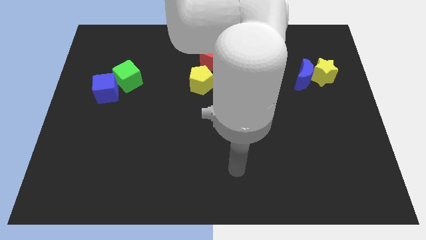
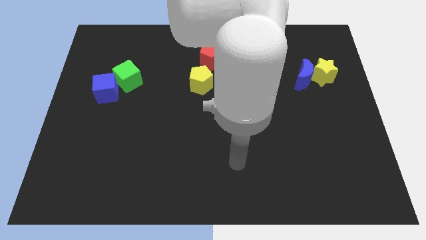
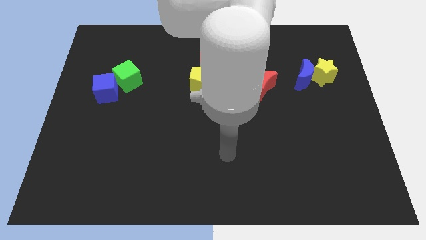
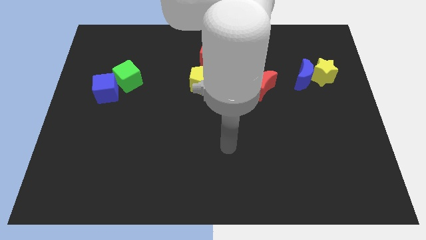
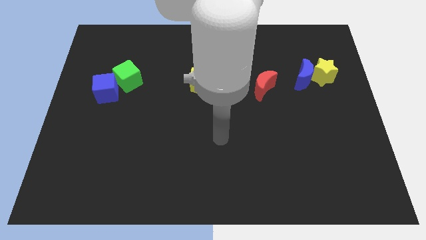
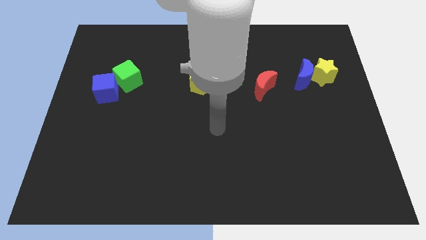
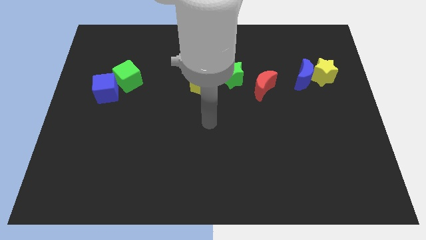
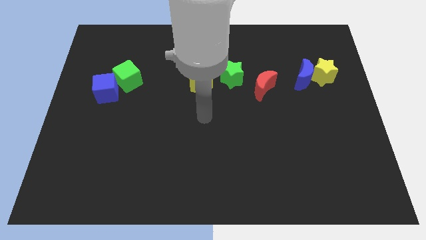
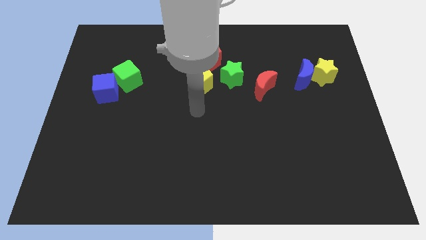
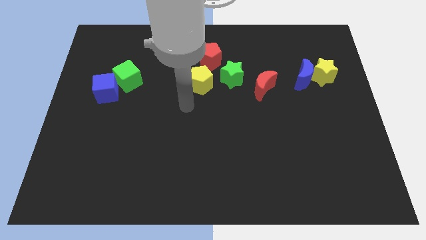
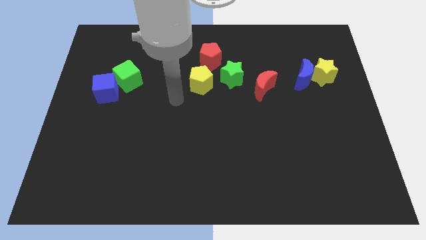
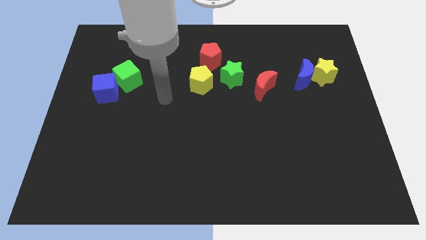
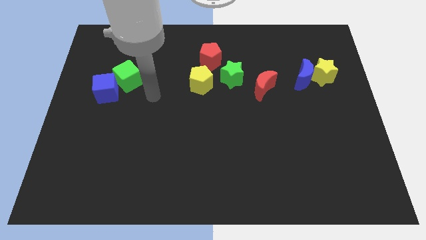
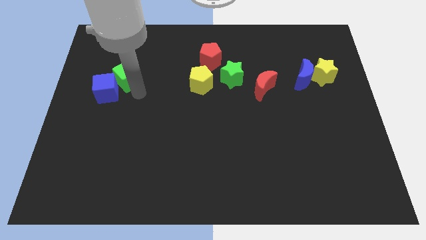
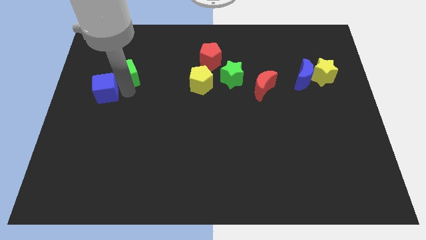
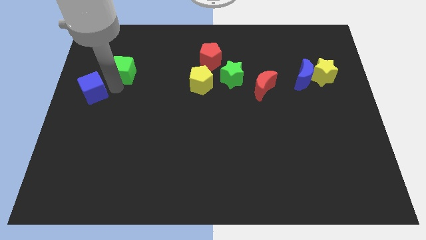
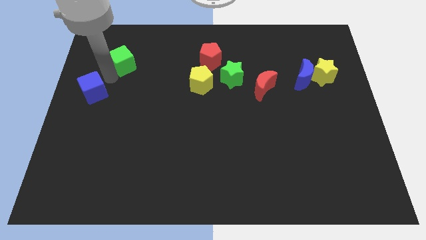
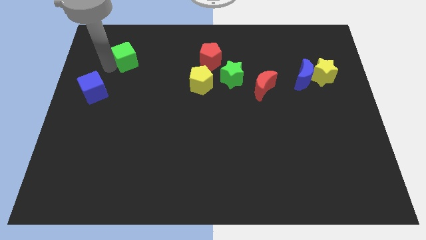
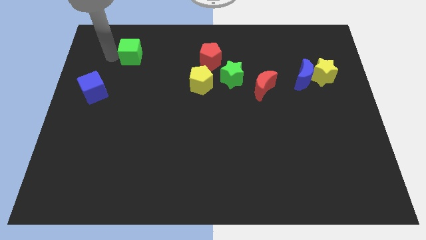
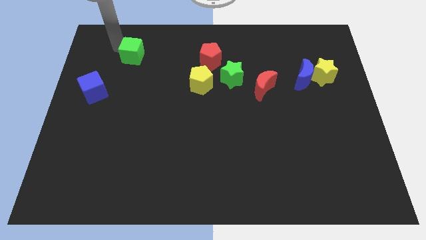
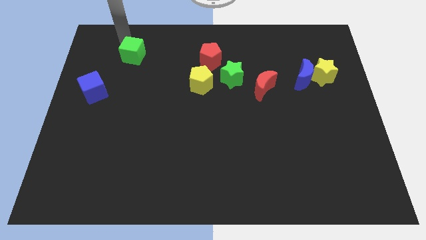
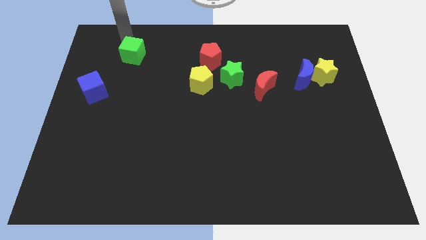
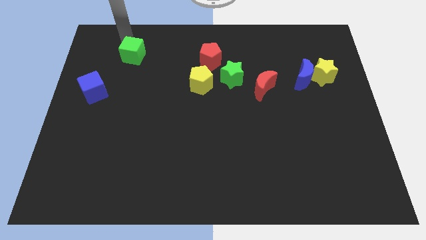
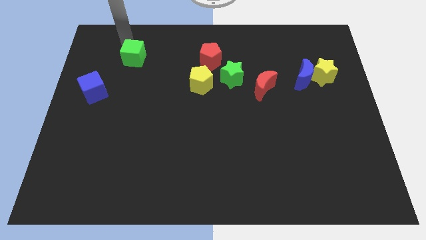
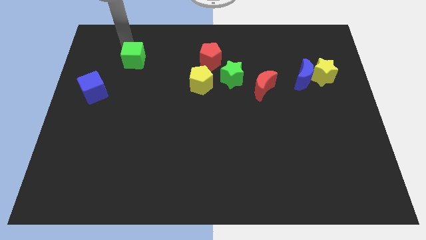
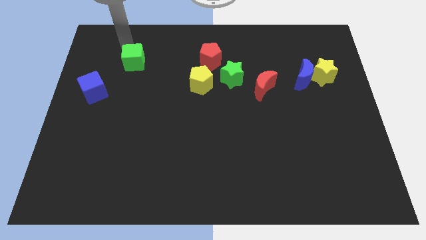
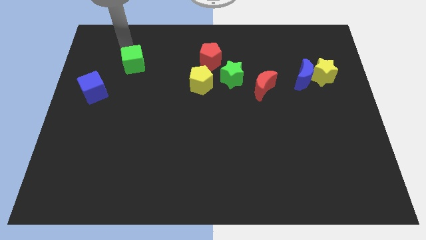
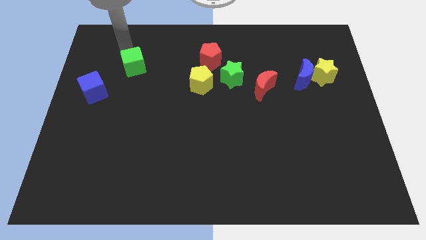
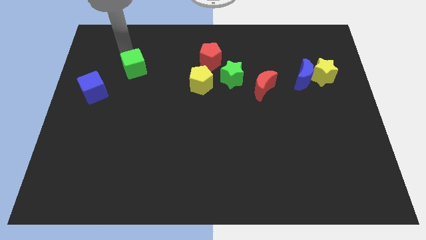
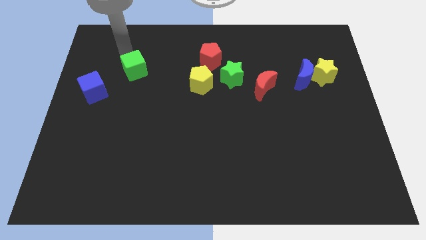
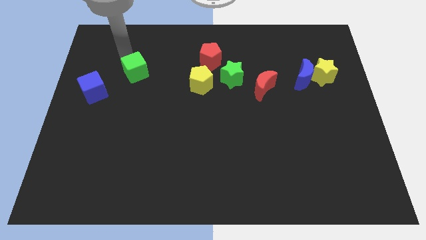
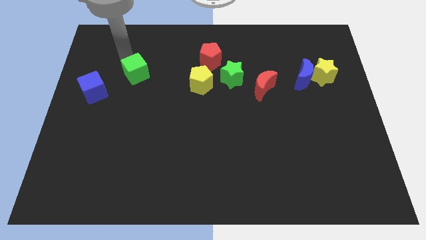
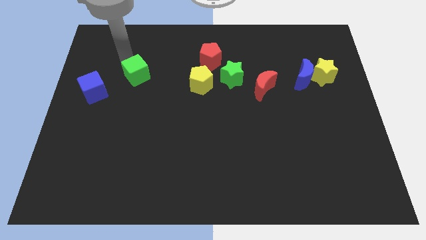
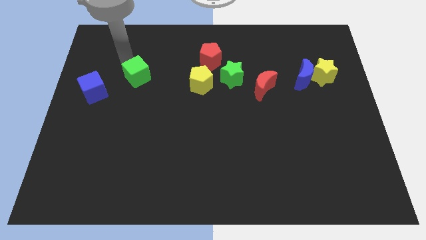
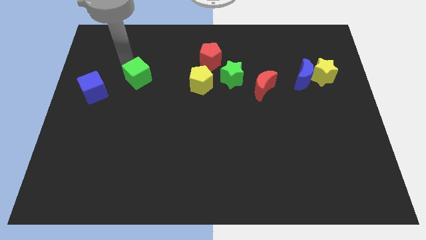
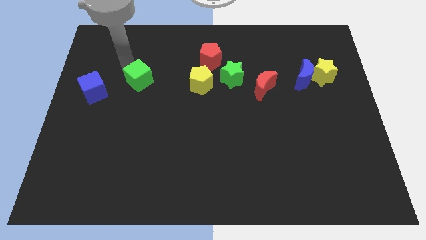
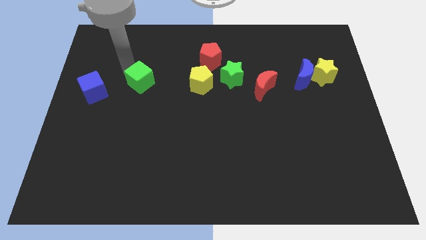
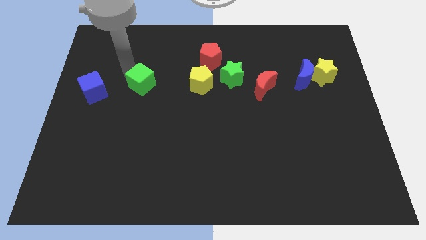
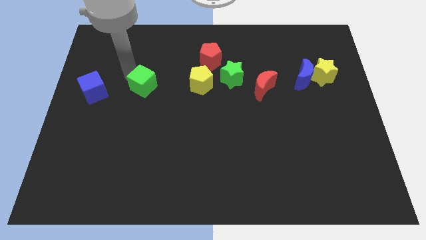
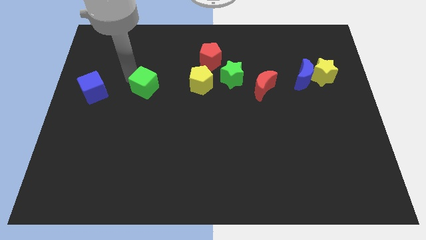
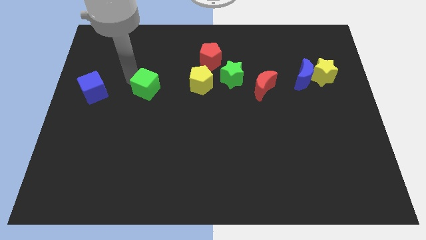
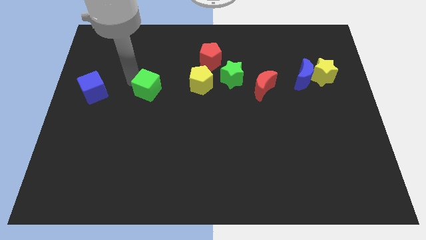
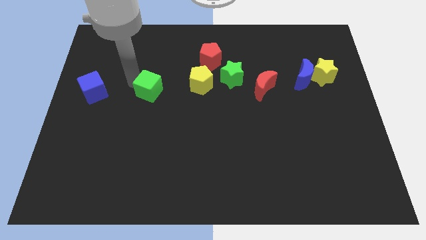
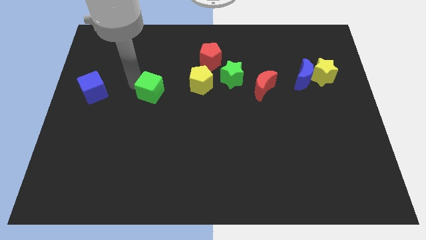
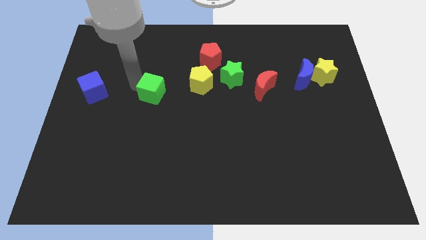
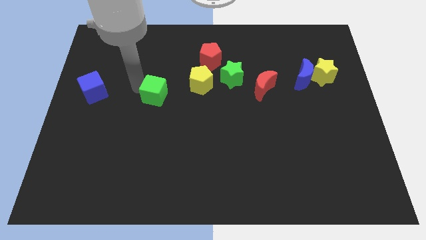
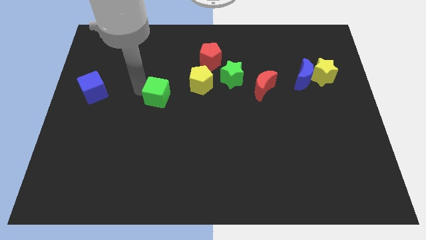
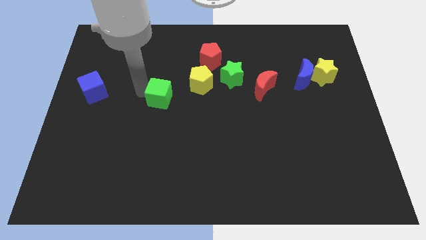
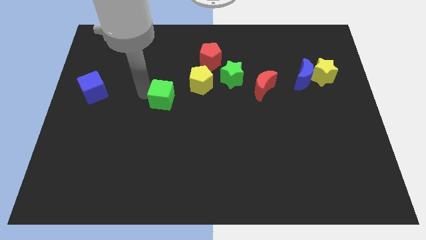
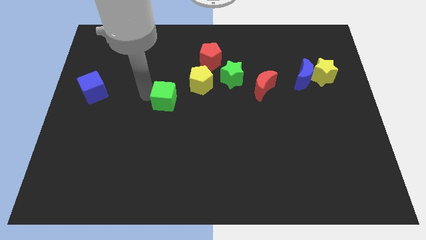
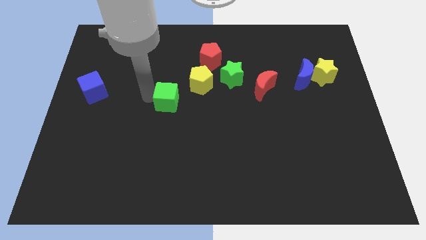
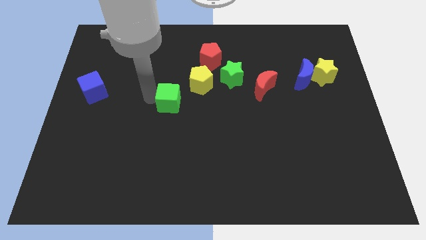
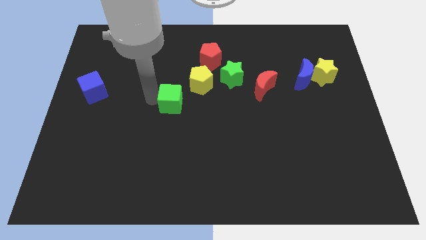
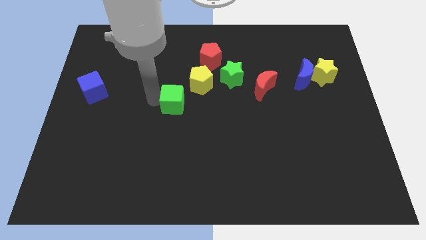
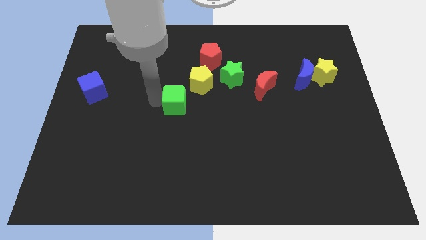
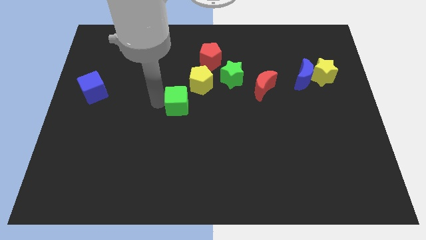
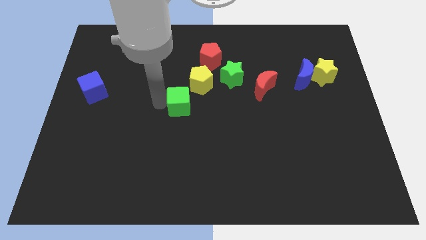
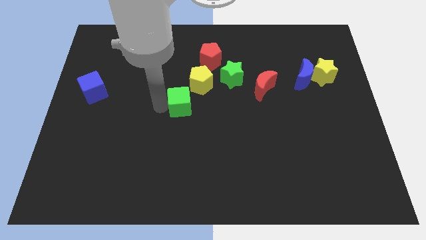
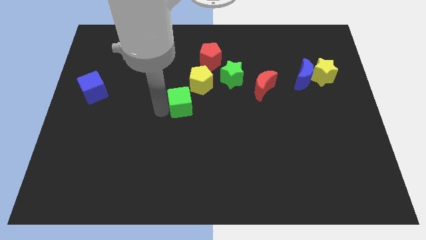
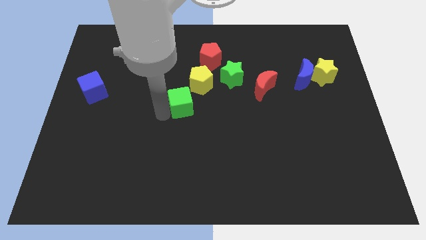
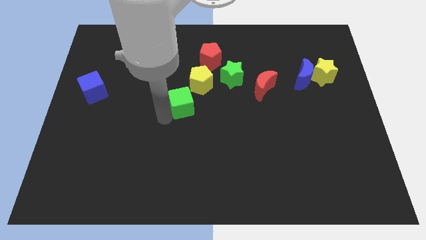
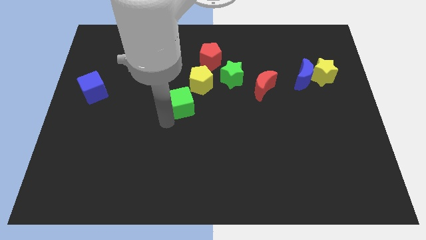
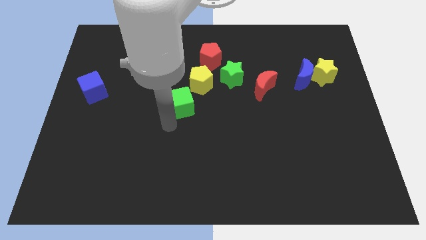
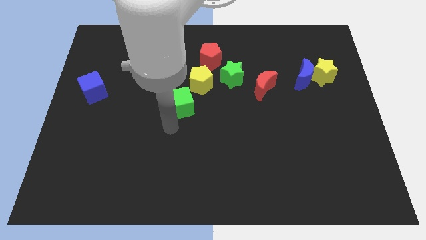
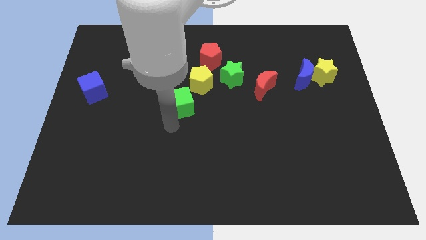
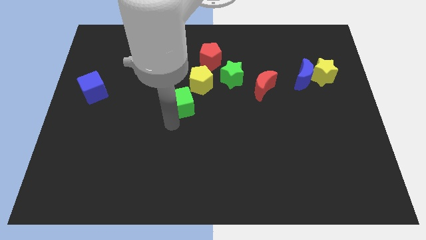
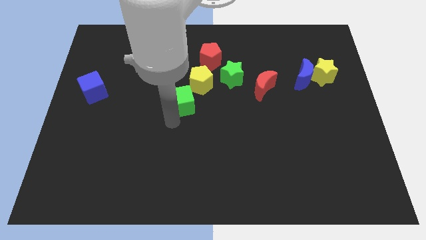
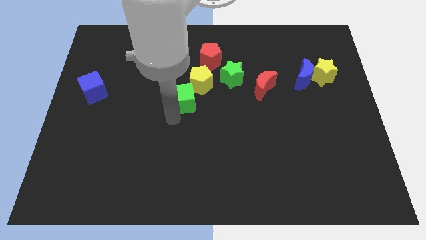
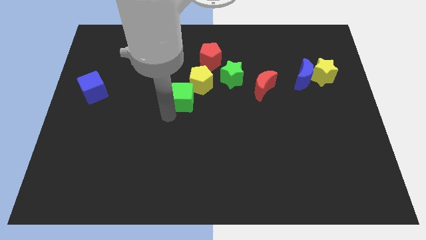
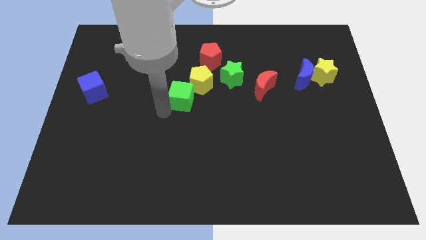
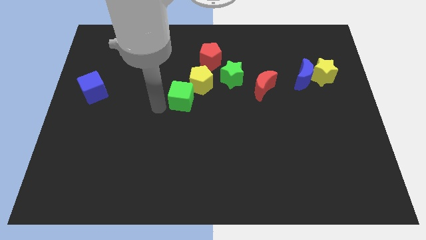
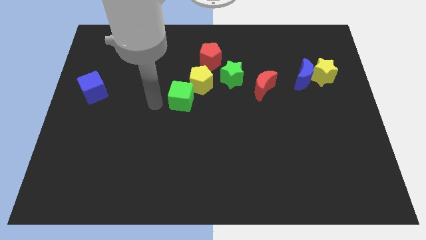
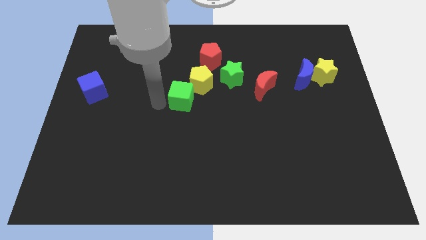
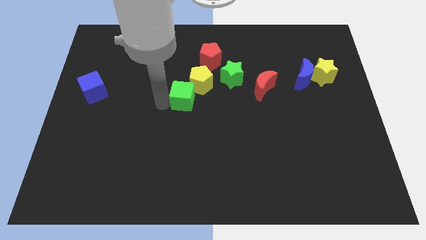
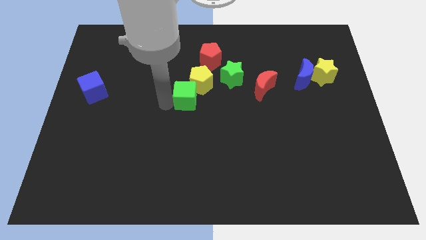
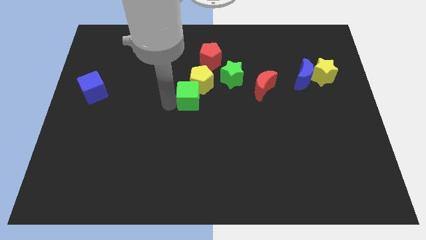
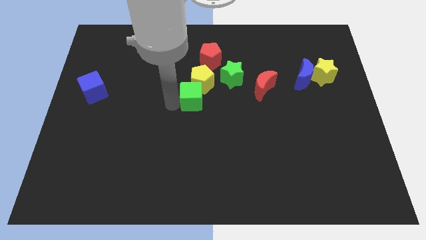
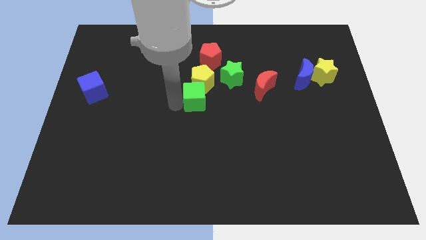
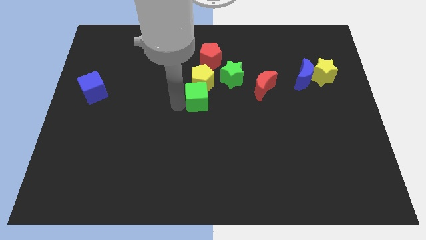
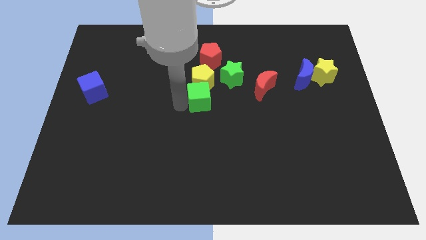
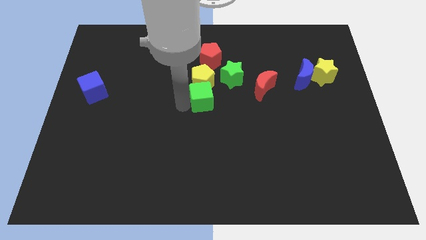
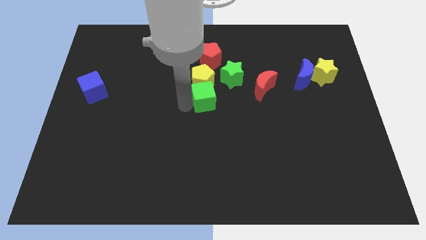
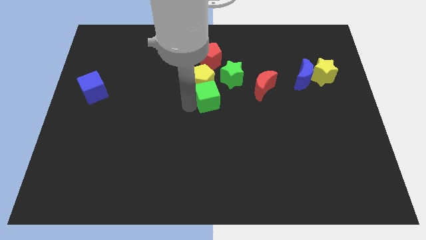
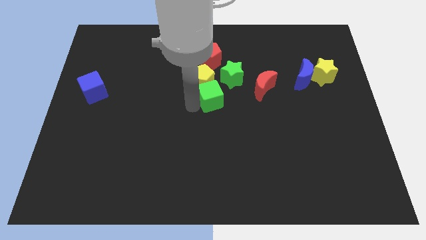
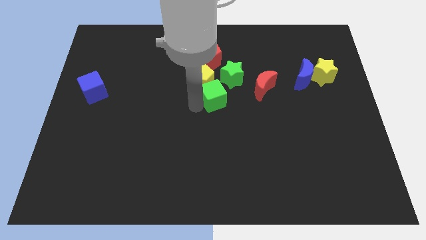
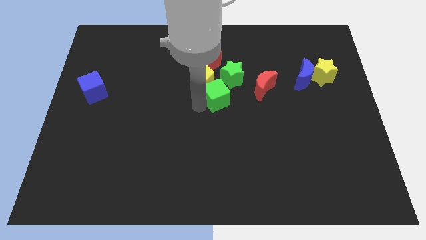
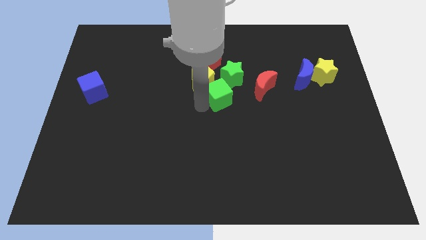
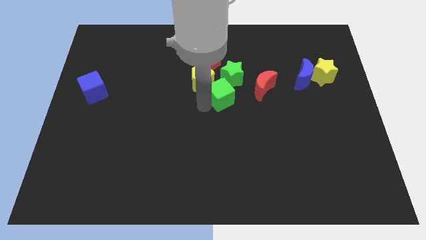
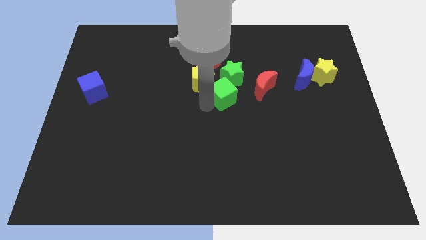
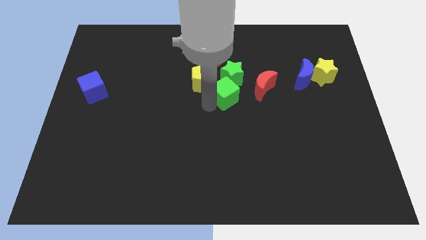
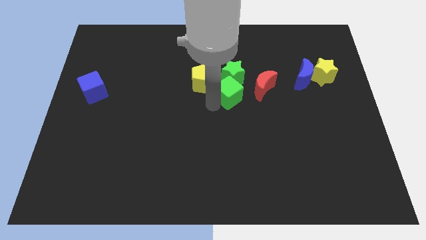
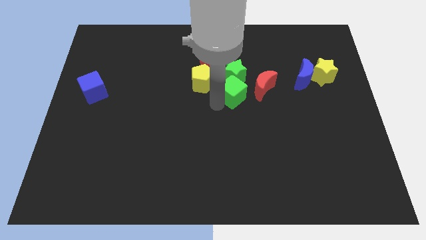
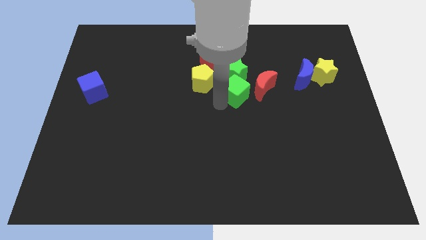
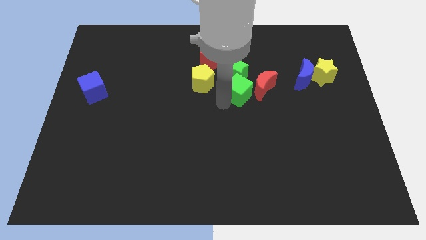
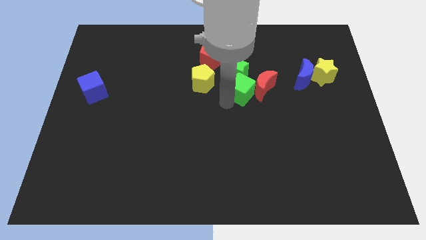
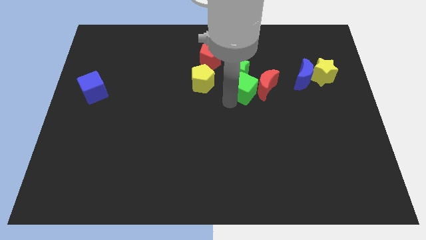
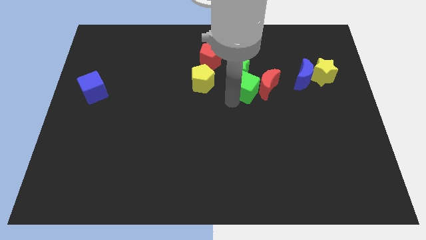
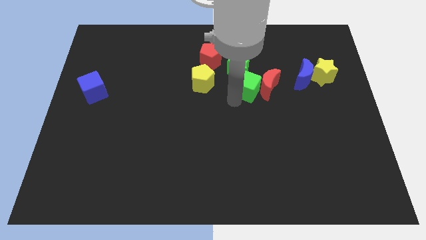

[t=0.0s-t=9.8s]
move the green cube to the left side of the blue moon
